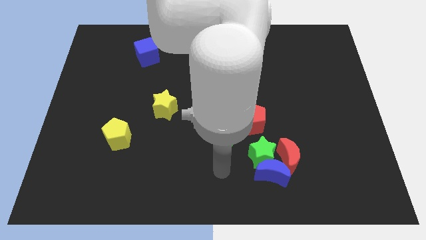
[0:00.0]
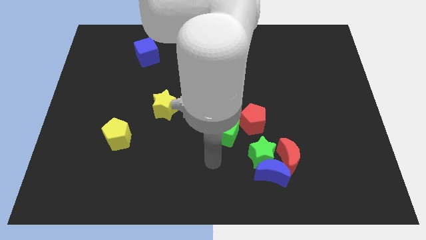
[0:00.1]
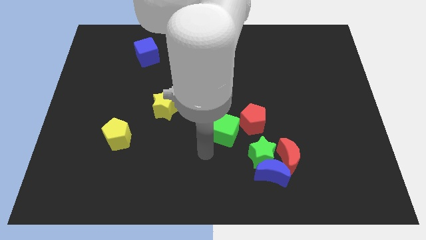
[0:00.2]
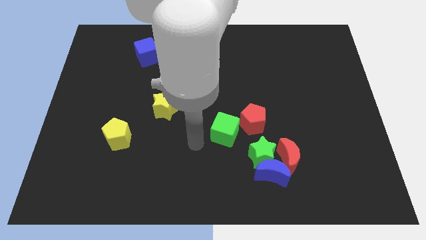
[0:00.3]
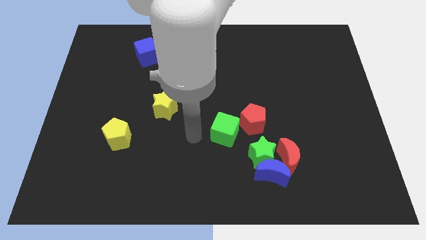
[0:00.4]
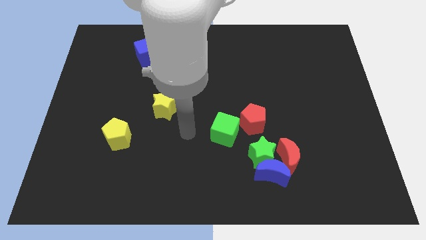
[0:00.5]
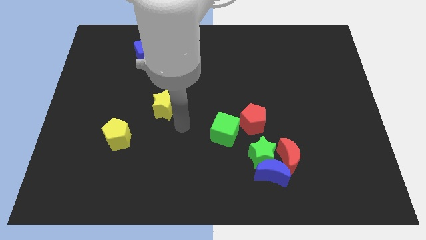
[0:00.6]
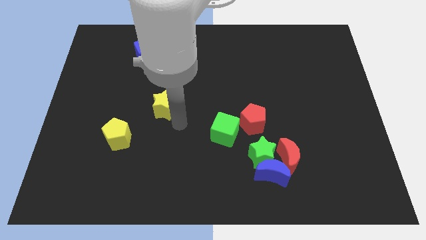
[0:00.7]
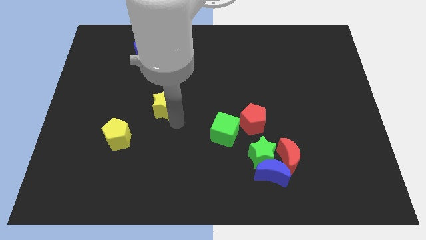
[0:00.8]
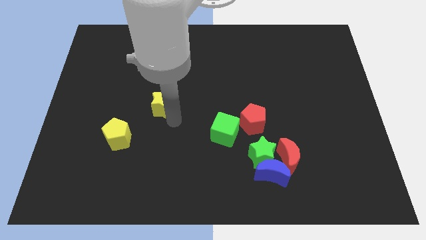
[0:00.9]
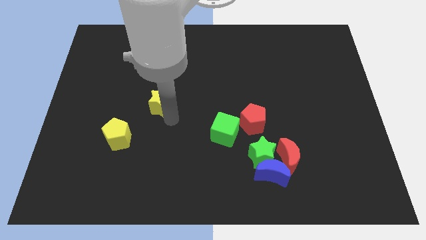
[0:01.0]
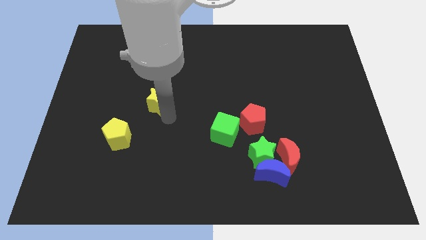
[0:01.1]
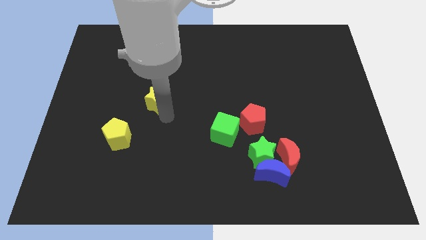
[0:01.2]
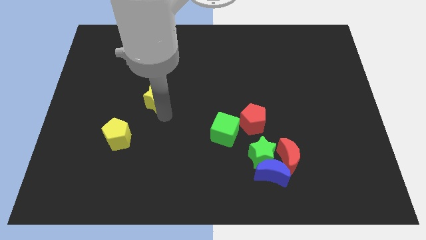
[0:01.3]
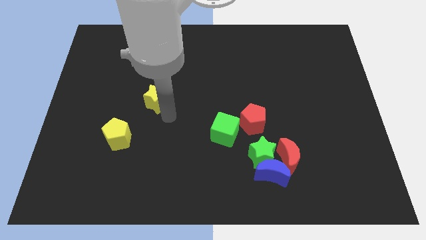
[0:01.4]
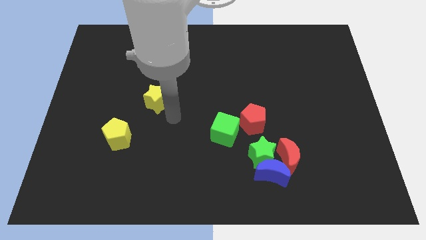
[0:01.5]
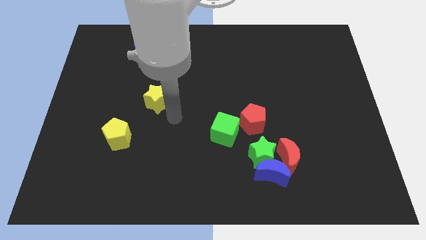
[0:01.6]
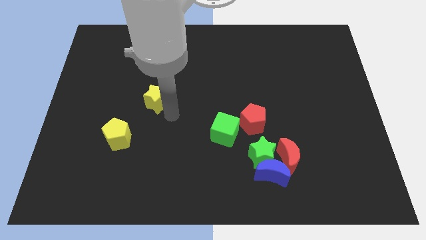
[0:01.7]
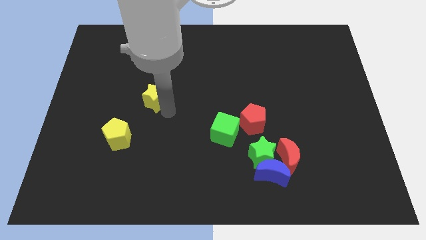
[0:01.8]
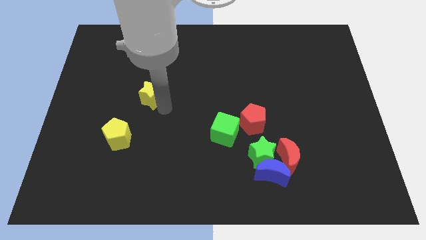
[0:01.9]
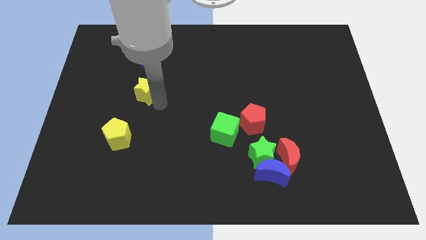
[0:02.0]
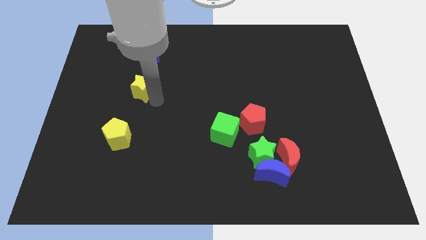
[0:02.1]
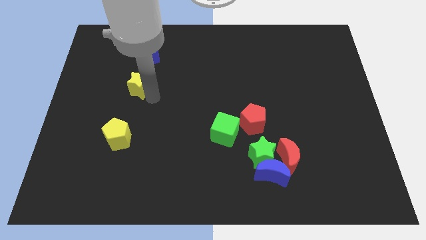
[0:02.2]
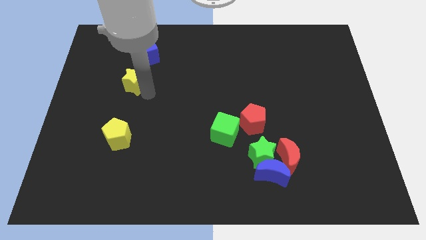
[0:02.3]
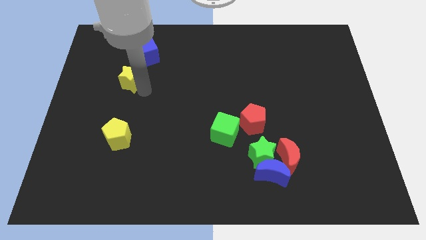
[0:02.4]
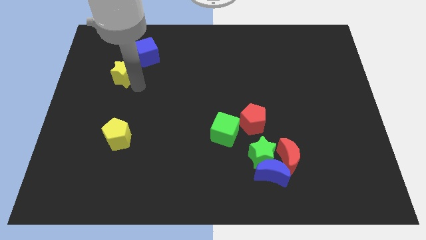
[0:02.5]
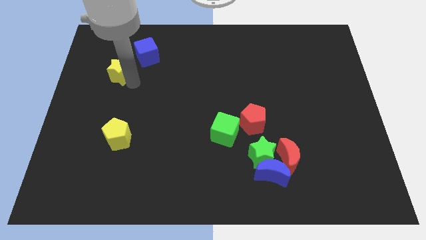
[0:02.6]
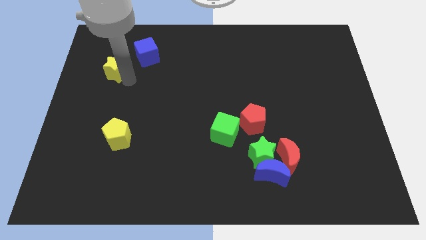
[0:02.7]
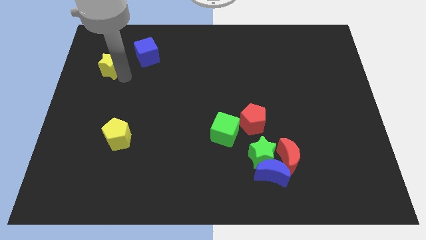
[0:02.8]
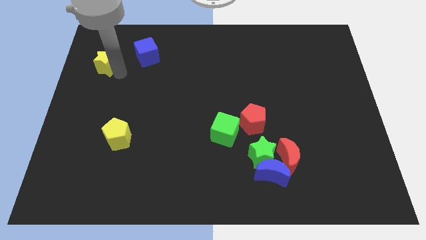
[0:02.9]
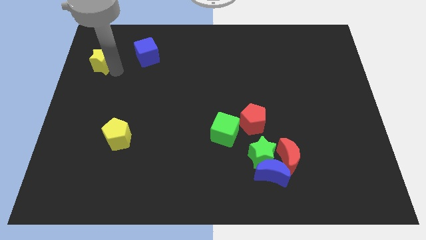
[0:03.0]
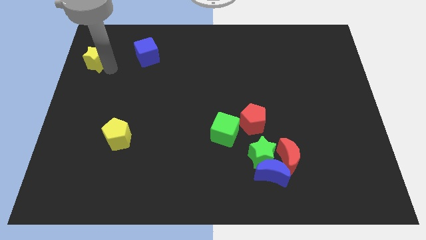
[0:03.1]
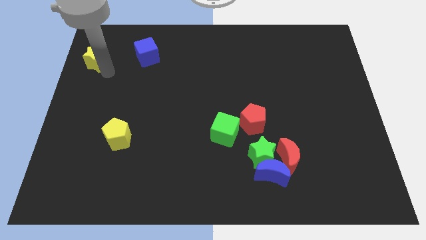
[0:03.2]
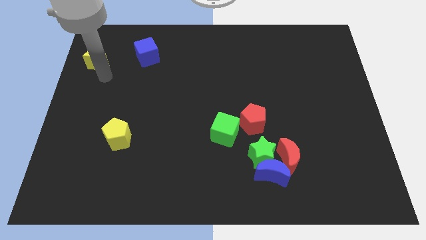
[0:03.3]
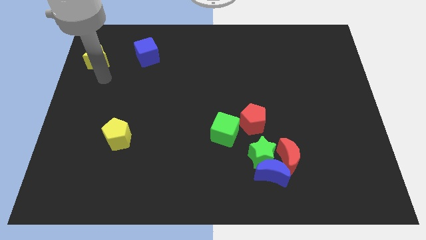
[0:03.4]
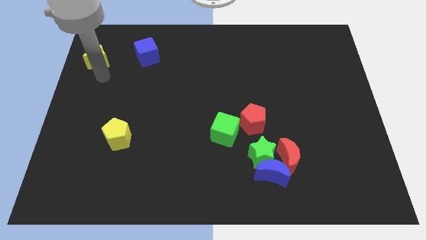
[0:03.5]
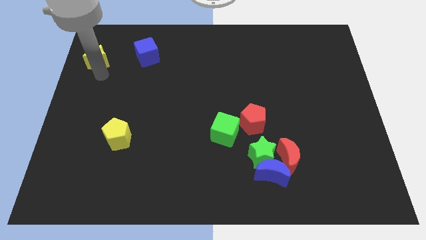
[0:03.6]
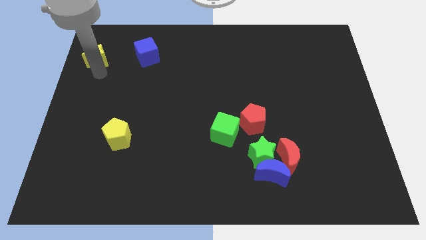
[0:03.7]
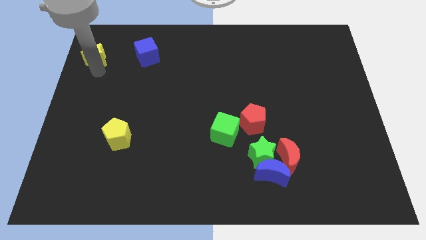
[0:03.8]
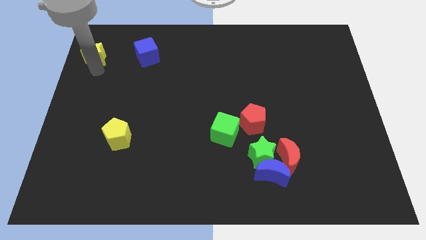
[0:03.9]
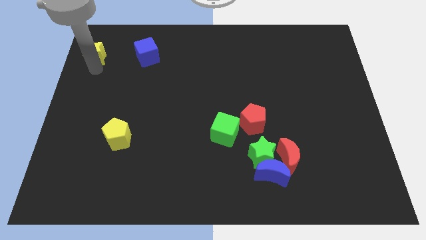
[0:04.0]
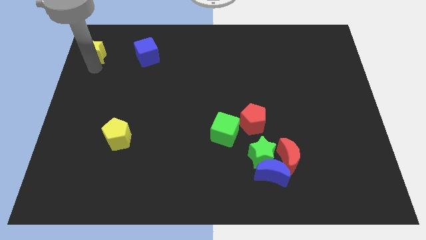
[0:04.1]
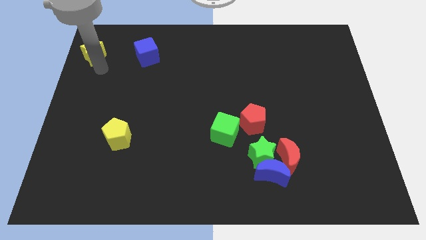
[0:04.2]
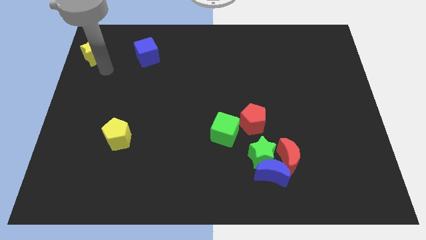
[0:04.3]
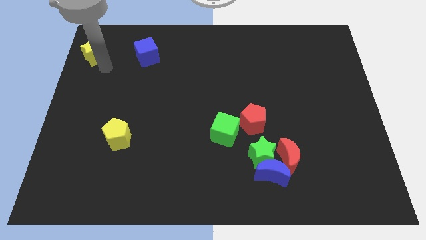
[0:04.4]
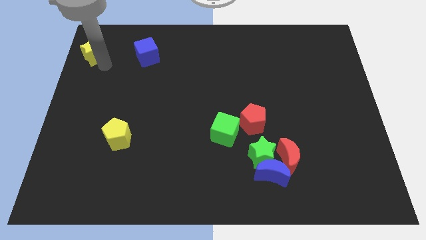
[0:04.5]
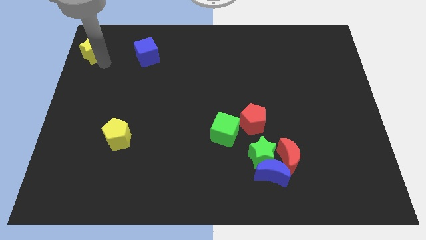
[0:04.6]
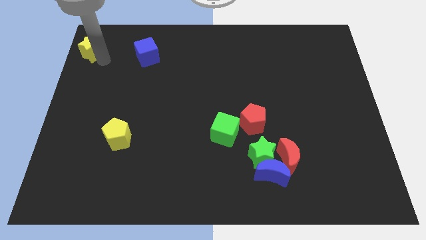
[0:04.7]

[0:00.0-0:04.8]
put the yellow star to the upper left corner

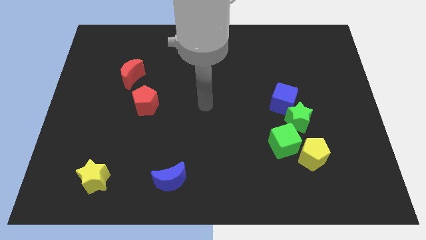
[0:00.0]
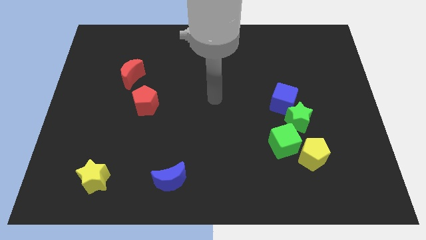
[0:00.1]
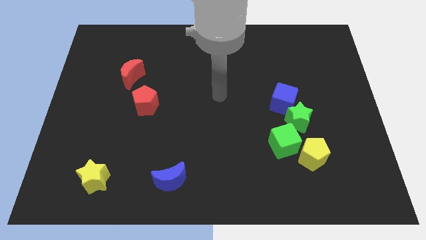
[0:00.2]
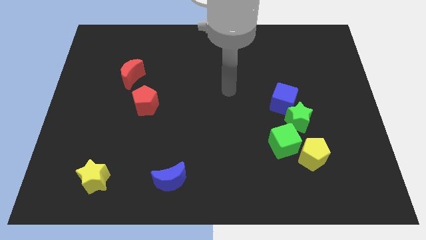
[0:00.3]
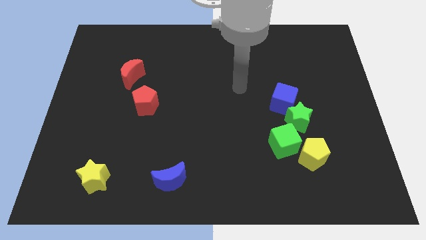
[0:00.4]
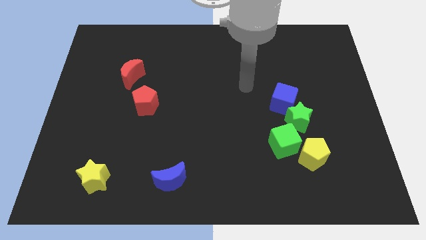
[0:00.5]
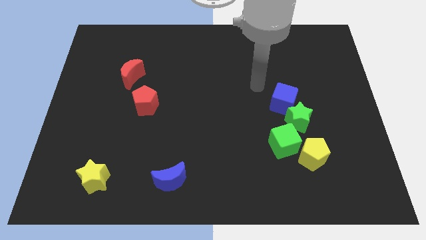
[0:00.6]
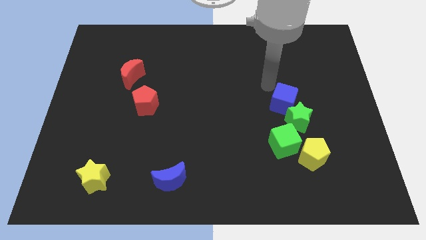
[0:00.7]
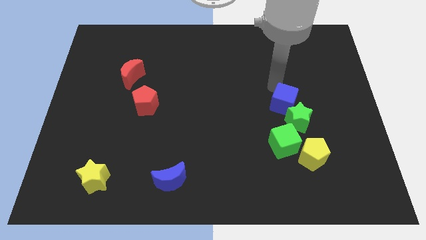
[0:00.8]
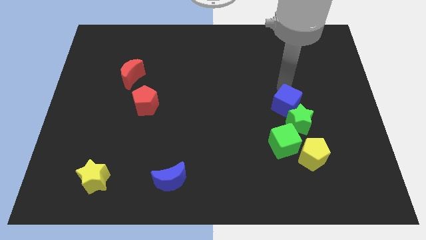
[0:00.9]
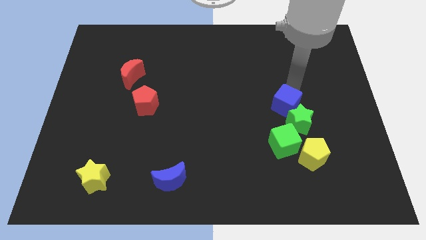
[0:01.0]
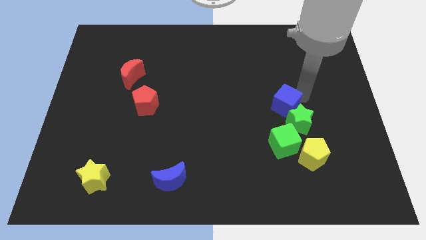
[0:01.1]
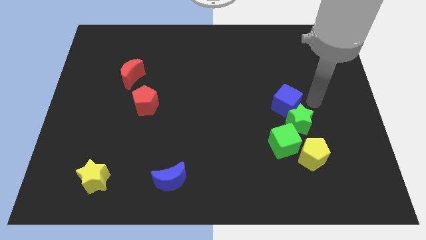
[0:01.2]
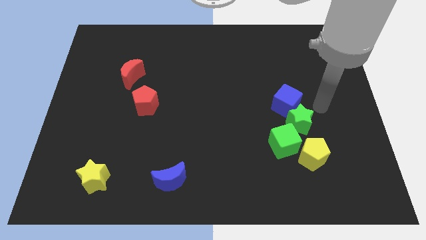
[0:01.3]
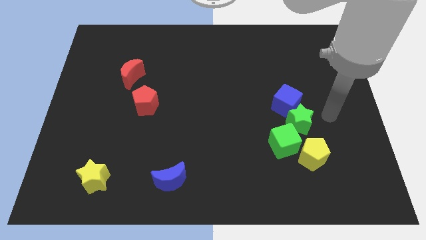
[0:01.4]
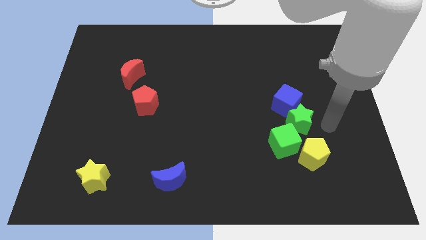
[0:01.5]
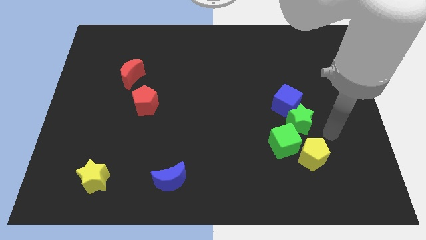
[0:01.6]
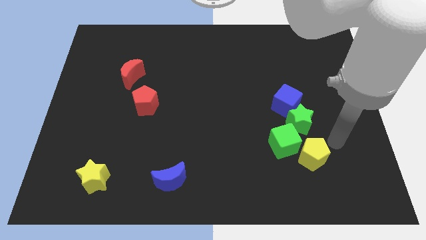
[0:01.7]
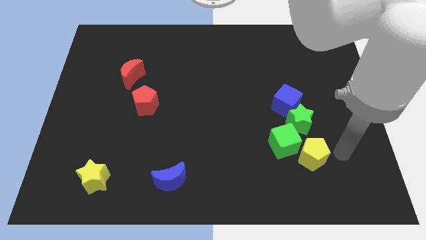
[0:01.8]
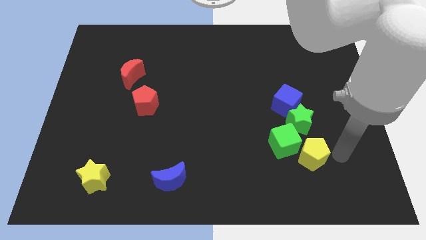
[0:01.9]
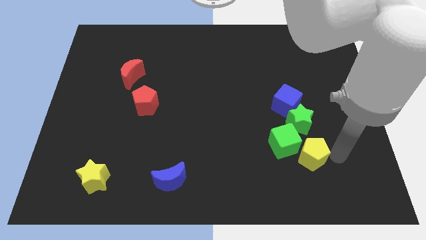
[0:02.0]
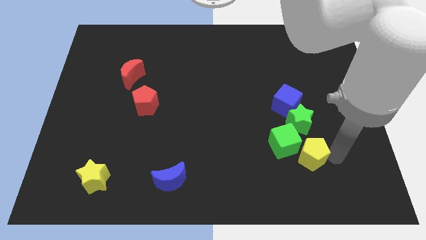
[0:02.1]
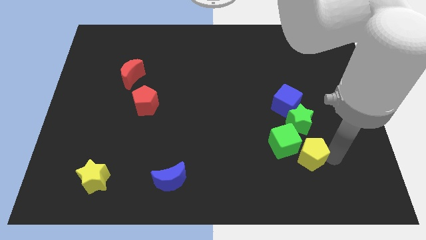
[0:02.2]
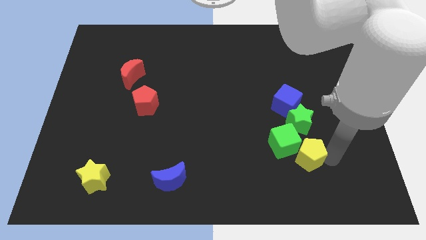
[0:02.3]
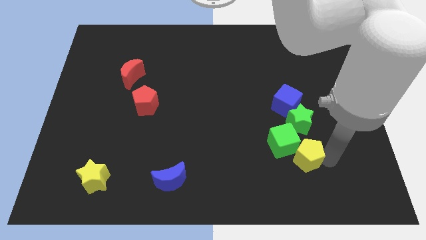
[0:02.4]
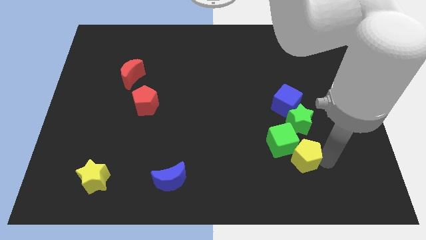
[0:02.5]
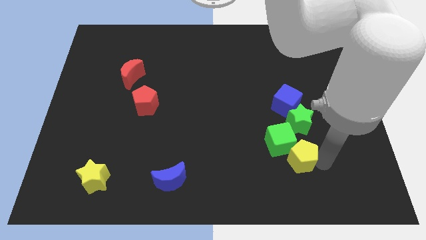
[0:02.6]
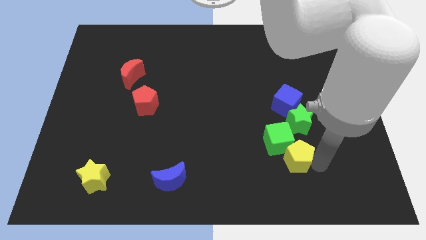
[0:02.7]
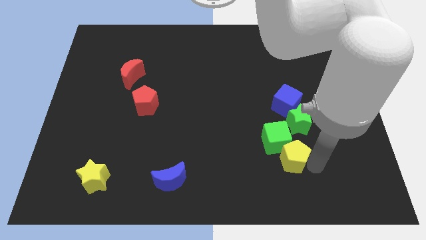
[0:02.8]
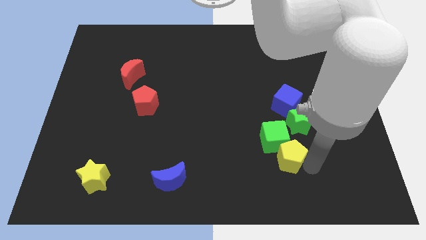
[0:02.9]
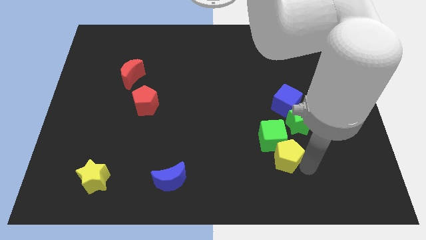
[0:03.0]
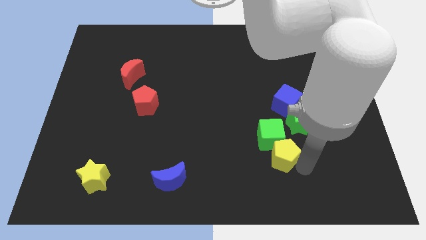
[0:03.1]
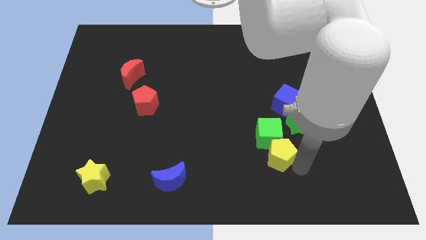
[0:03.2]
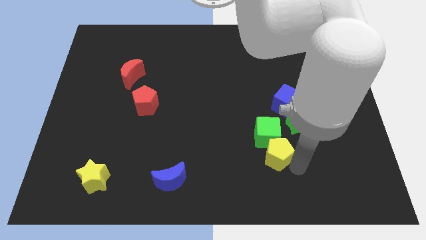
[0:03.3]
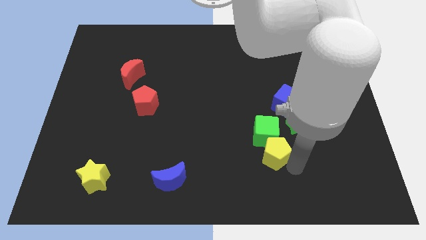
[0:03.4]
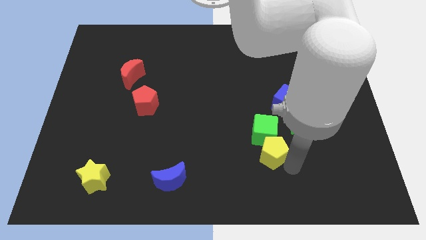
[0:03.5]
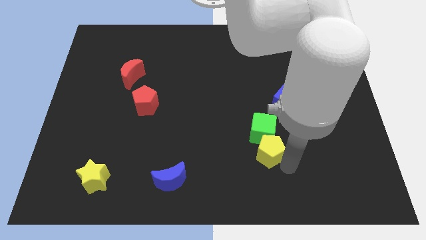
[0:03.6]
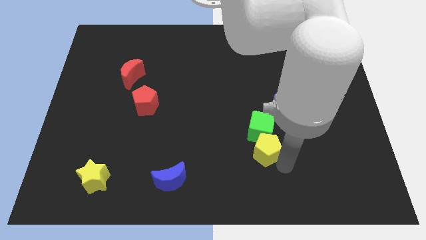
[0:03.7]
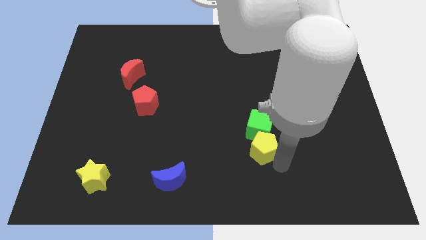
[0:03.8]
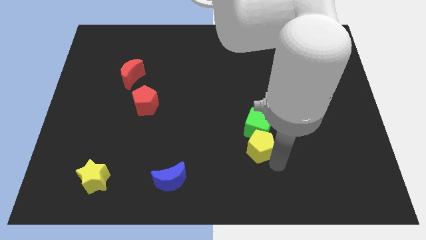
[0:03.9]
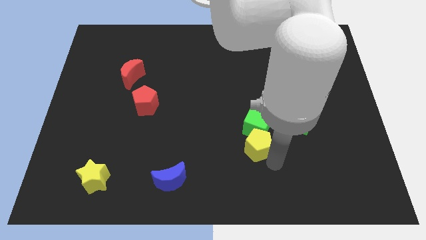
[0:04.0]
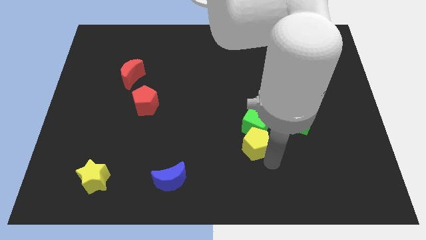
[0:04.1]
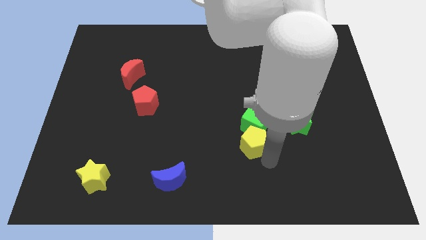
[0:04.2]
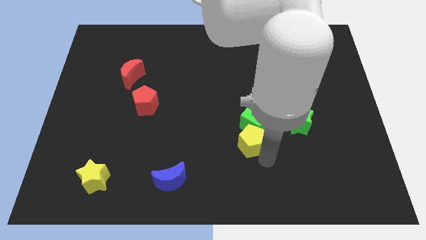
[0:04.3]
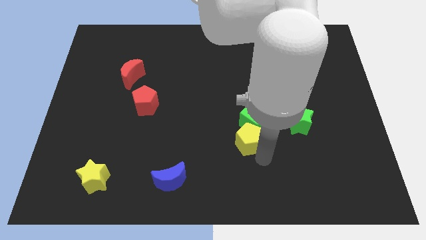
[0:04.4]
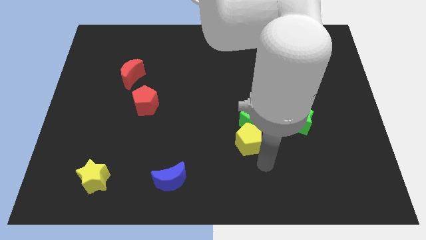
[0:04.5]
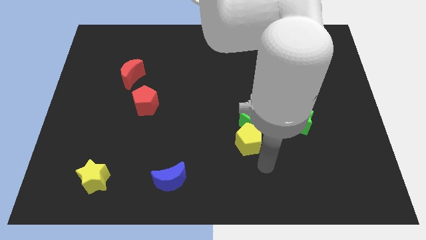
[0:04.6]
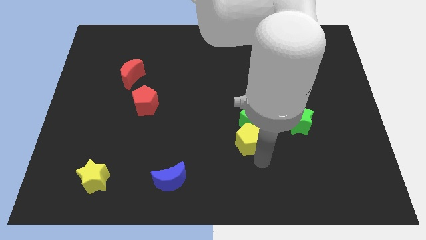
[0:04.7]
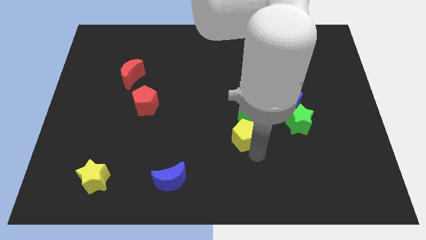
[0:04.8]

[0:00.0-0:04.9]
move the yellow pentagon to the middle of the board
